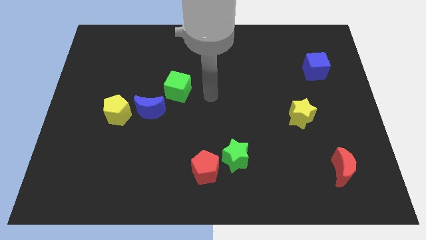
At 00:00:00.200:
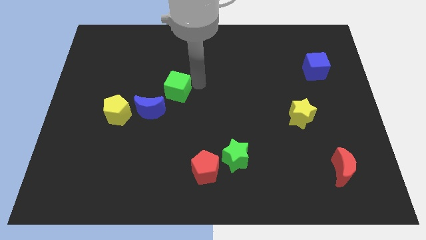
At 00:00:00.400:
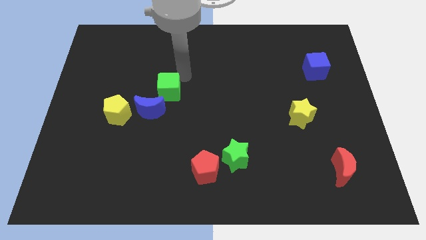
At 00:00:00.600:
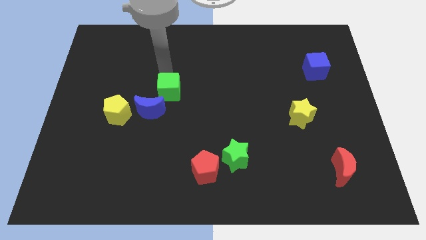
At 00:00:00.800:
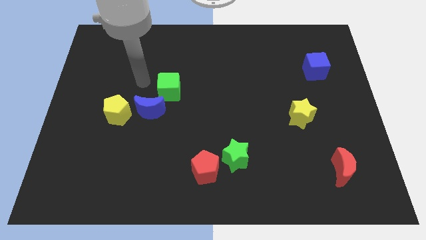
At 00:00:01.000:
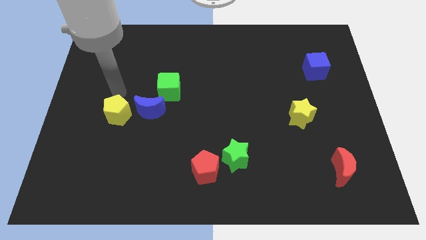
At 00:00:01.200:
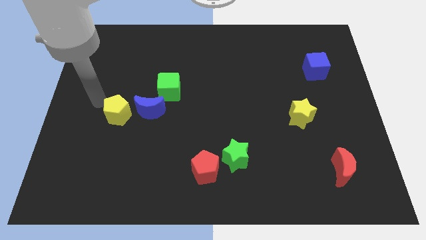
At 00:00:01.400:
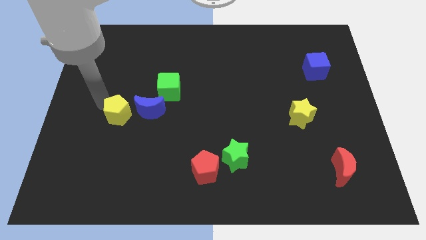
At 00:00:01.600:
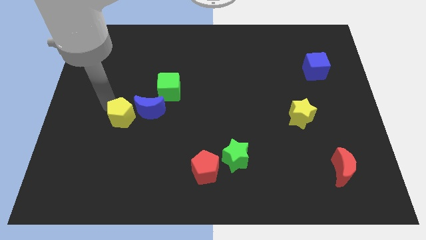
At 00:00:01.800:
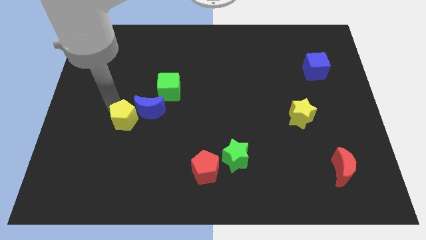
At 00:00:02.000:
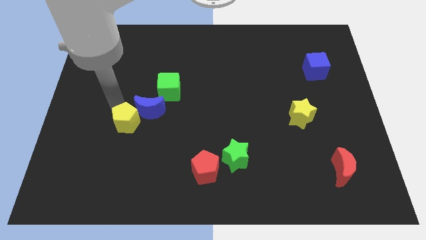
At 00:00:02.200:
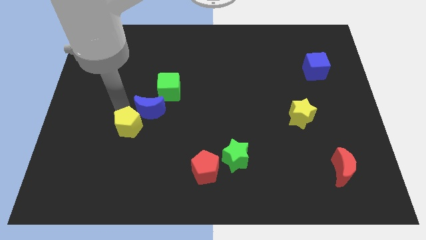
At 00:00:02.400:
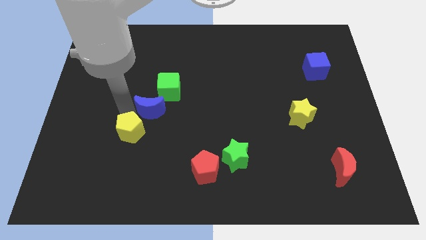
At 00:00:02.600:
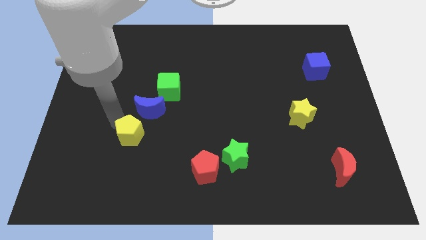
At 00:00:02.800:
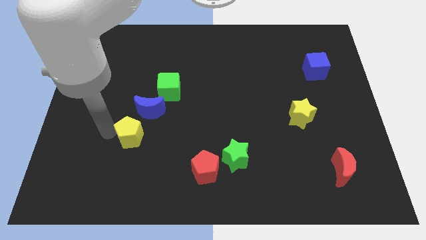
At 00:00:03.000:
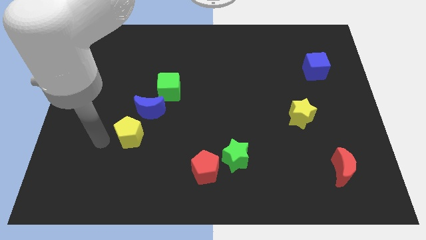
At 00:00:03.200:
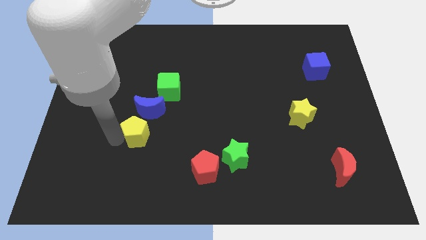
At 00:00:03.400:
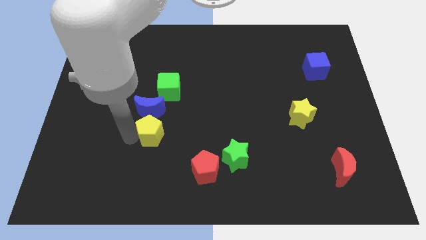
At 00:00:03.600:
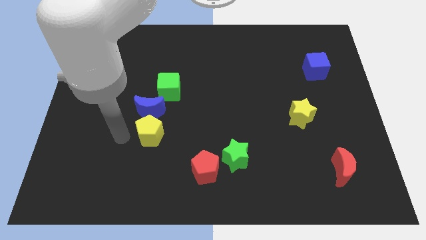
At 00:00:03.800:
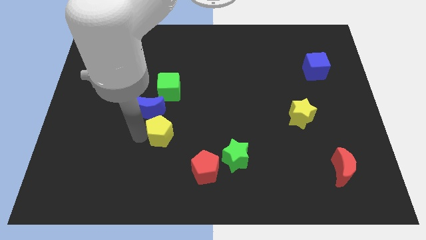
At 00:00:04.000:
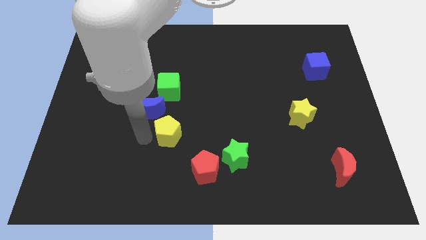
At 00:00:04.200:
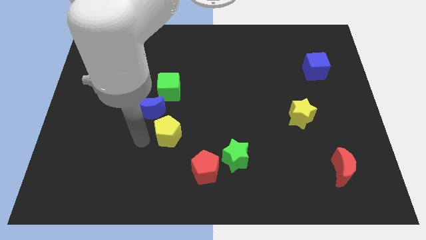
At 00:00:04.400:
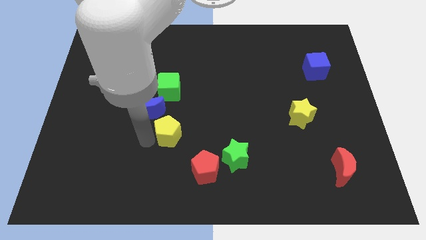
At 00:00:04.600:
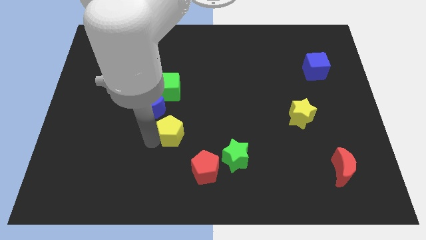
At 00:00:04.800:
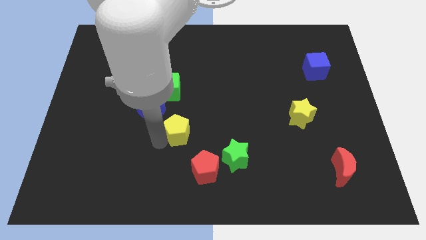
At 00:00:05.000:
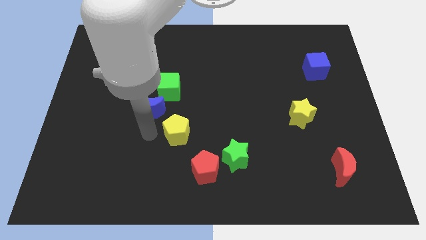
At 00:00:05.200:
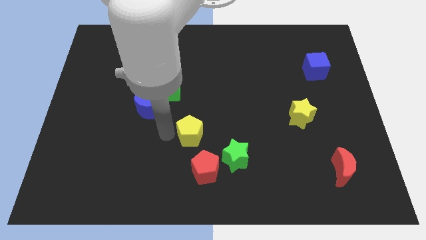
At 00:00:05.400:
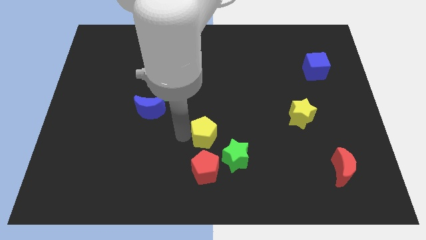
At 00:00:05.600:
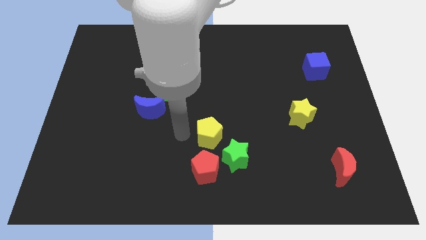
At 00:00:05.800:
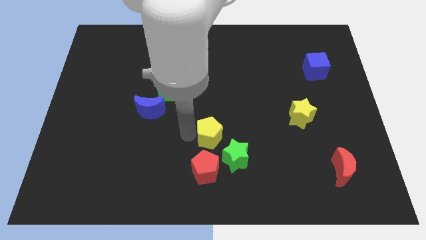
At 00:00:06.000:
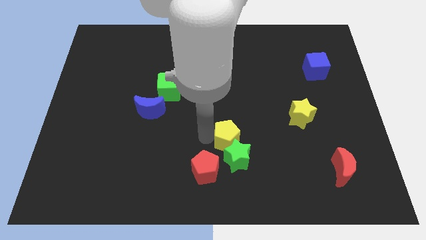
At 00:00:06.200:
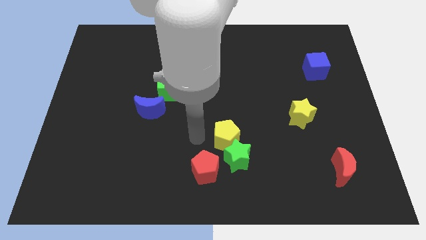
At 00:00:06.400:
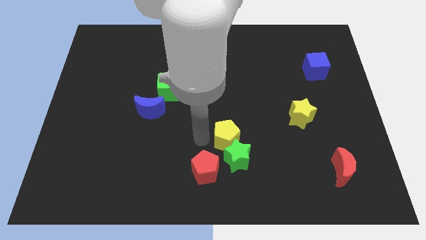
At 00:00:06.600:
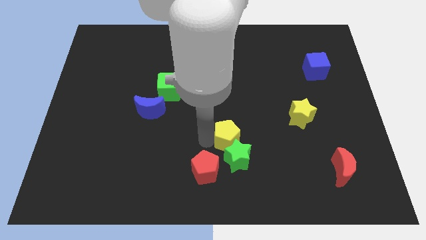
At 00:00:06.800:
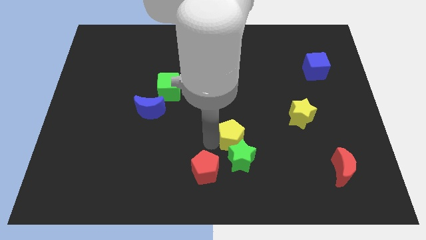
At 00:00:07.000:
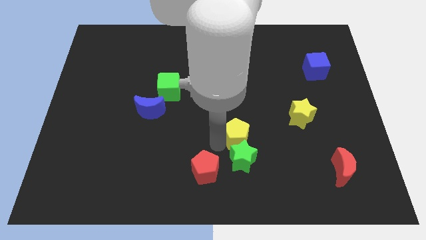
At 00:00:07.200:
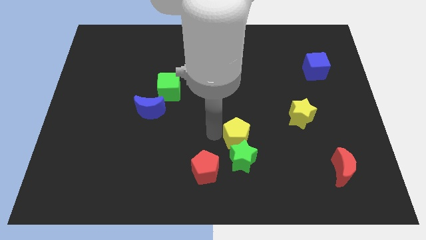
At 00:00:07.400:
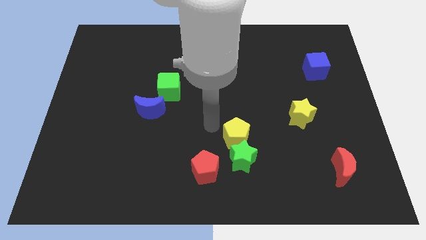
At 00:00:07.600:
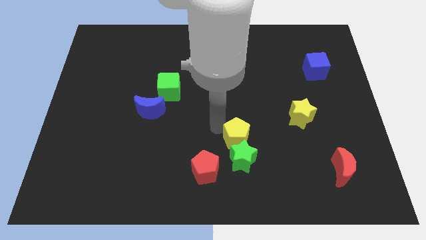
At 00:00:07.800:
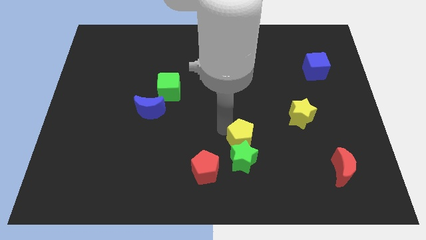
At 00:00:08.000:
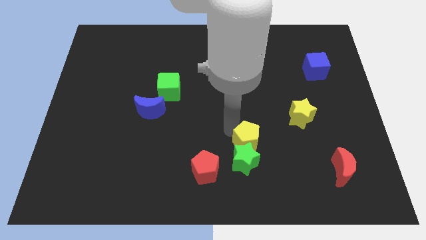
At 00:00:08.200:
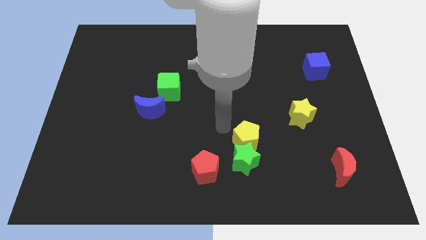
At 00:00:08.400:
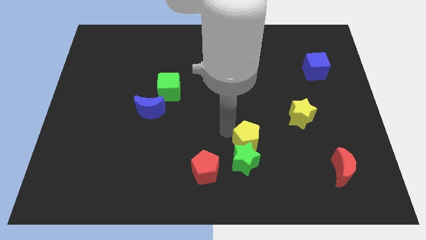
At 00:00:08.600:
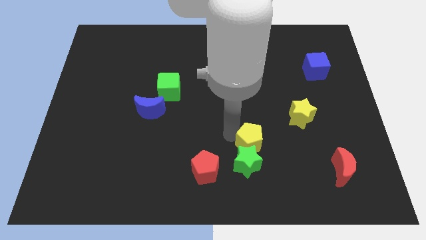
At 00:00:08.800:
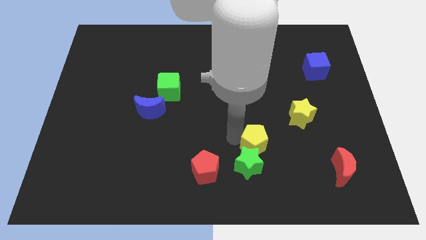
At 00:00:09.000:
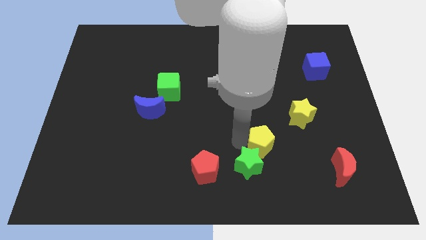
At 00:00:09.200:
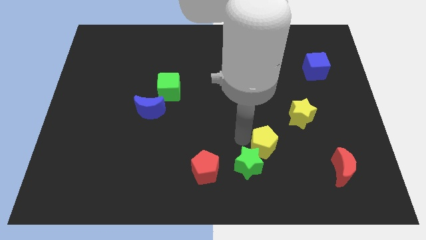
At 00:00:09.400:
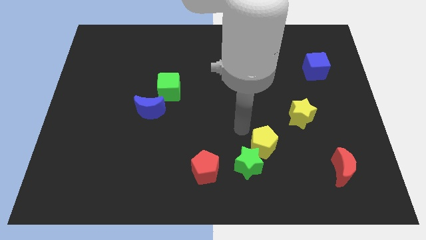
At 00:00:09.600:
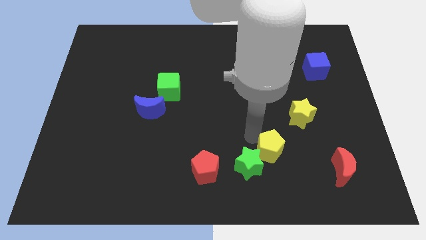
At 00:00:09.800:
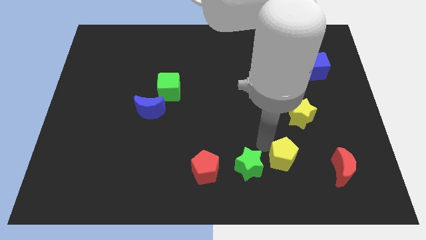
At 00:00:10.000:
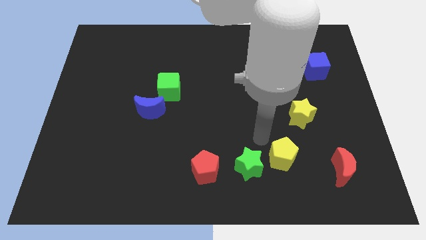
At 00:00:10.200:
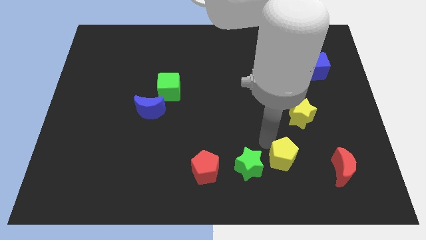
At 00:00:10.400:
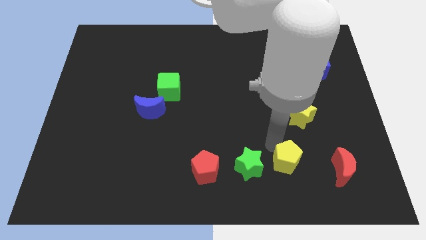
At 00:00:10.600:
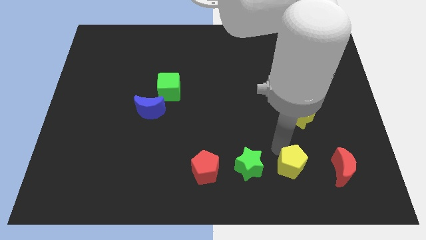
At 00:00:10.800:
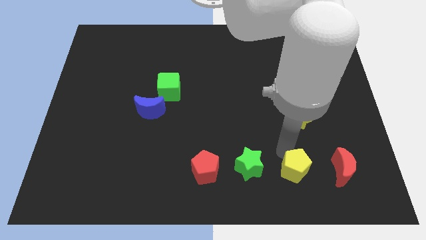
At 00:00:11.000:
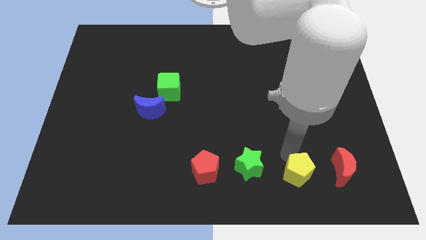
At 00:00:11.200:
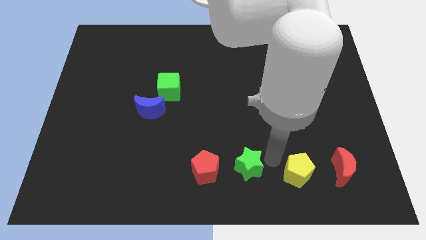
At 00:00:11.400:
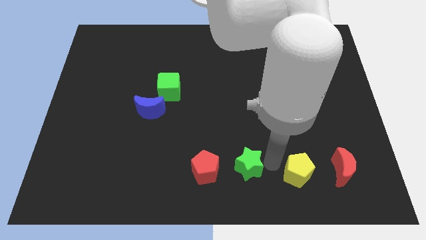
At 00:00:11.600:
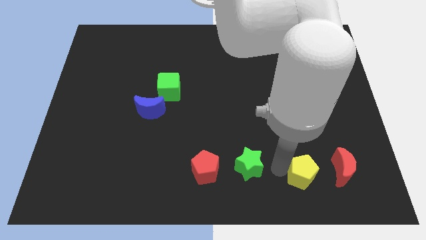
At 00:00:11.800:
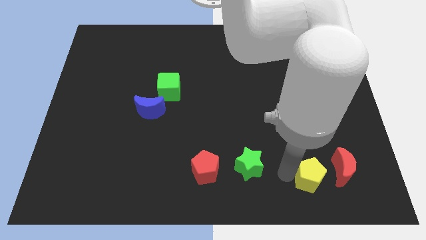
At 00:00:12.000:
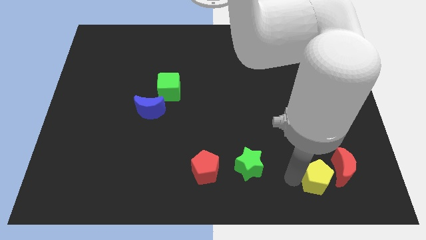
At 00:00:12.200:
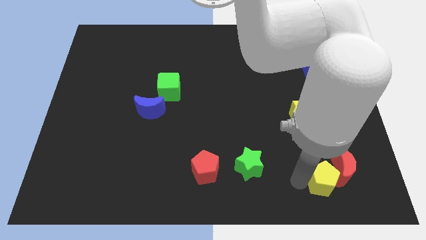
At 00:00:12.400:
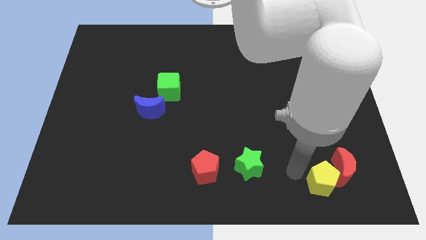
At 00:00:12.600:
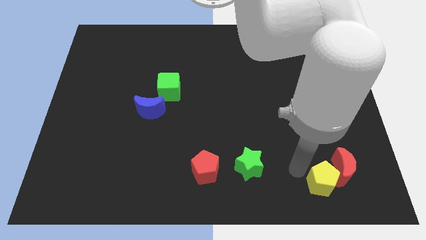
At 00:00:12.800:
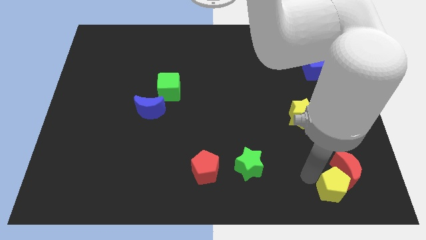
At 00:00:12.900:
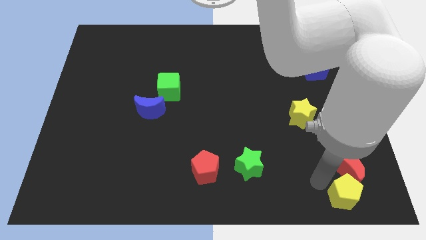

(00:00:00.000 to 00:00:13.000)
slide the yellow pentagon to the bottom right
